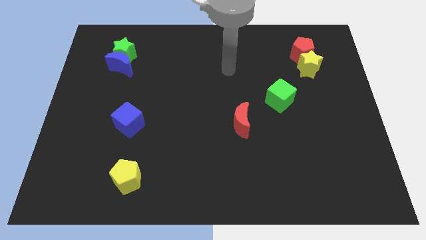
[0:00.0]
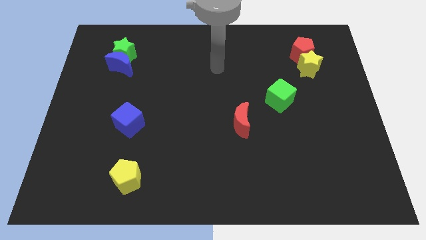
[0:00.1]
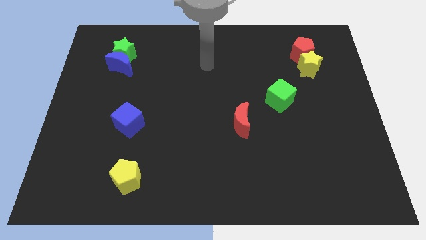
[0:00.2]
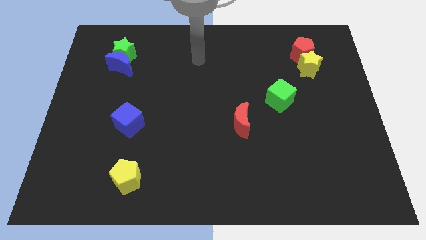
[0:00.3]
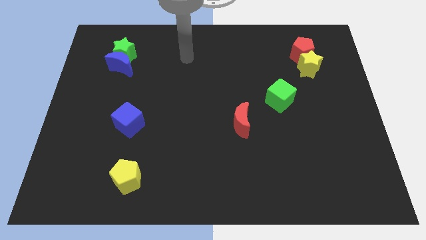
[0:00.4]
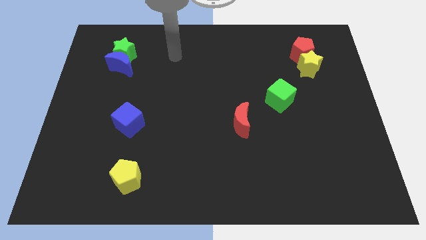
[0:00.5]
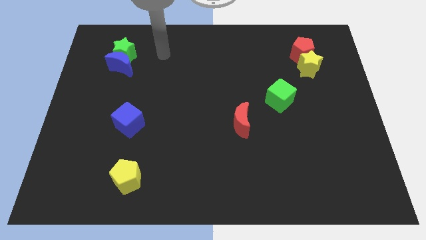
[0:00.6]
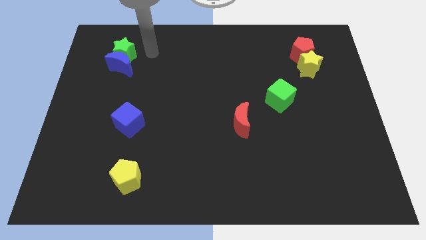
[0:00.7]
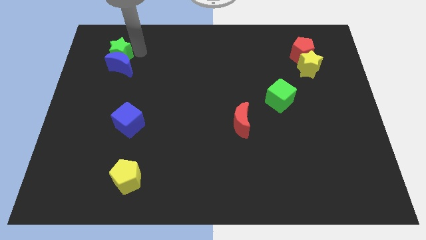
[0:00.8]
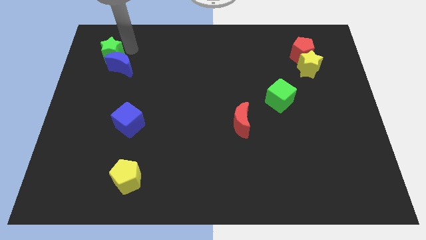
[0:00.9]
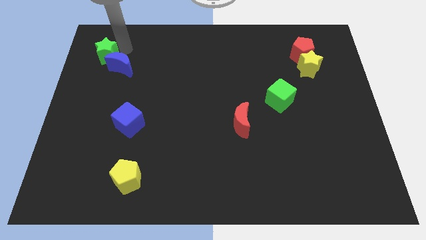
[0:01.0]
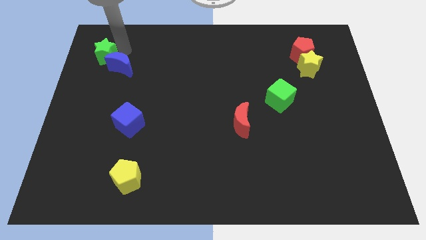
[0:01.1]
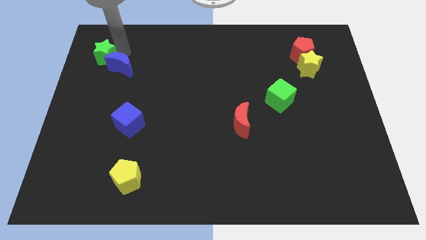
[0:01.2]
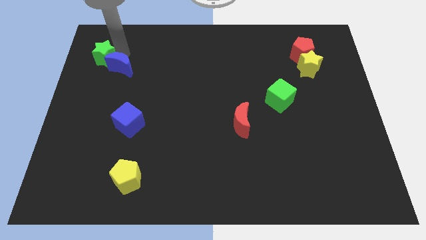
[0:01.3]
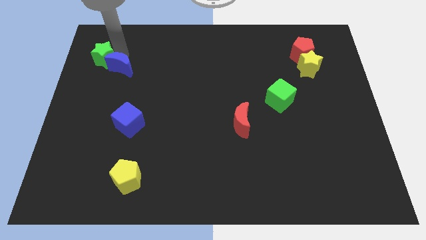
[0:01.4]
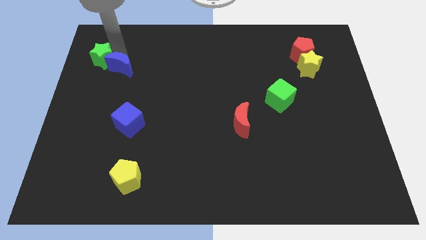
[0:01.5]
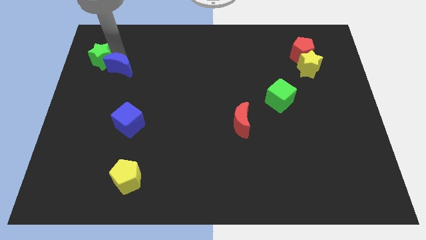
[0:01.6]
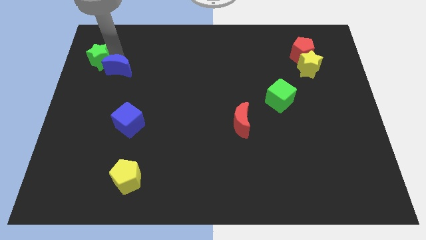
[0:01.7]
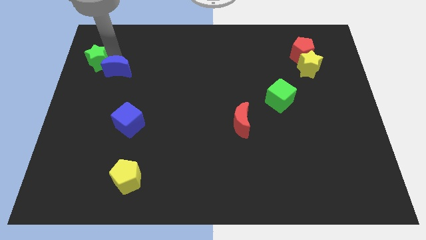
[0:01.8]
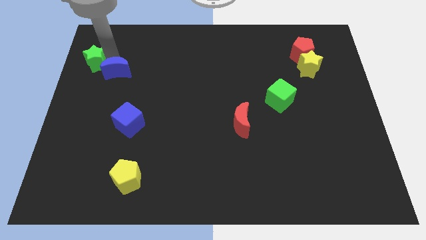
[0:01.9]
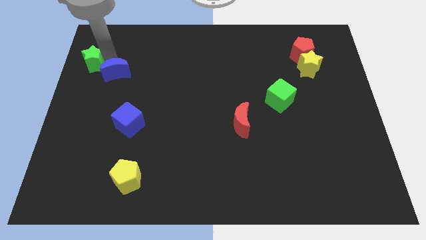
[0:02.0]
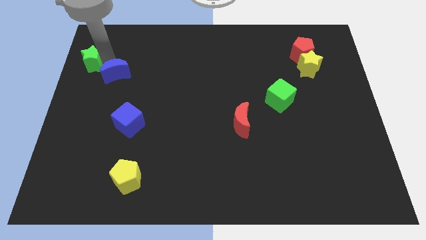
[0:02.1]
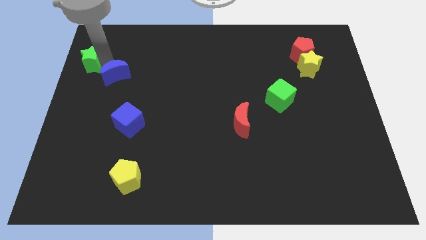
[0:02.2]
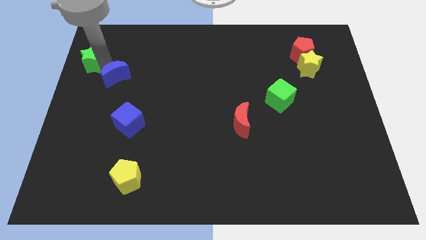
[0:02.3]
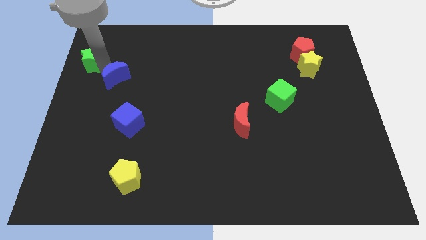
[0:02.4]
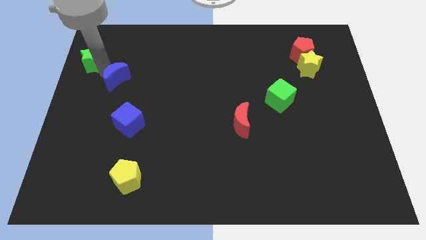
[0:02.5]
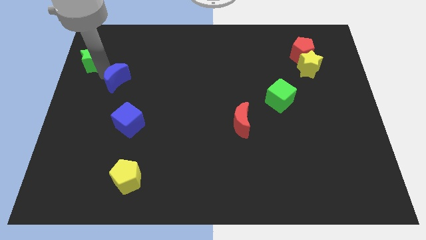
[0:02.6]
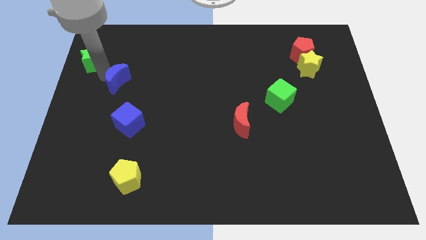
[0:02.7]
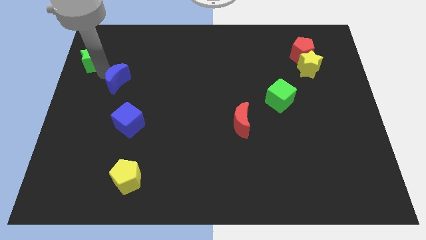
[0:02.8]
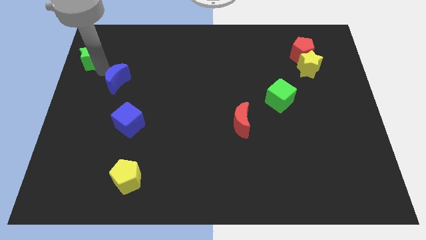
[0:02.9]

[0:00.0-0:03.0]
move the blue moon away from the green star

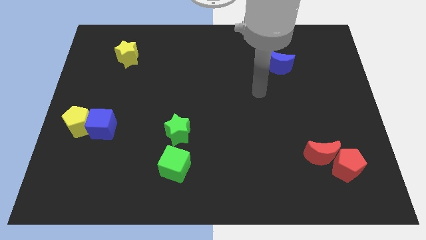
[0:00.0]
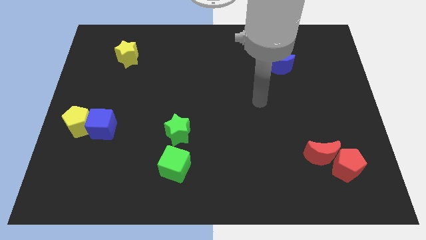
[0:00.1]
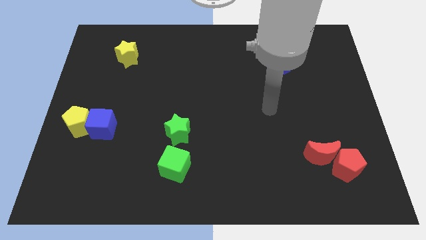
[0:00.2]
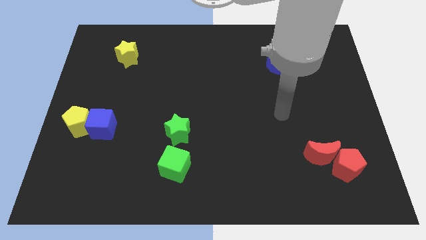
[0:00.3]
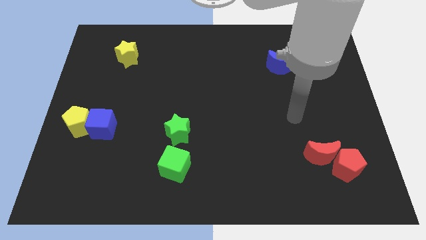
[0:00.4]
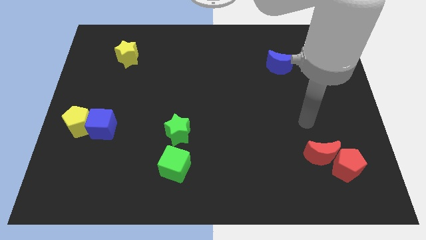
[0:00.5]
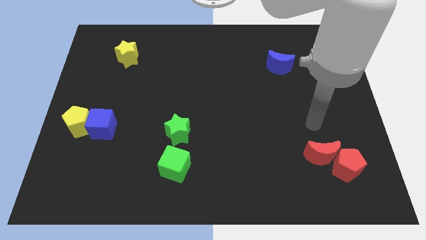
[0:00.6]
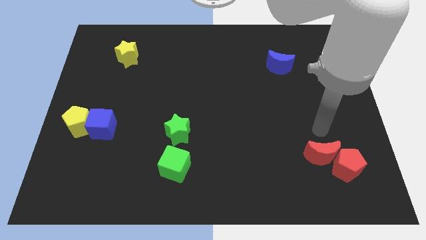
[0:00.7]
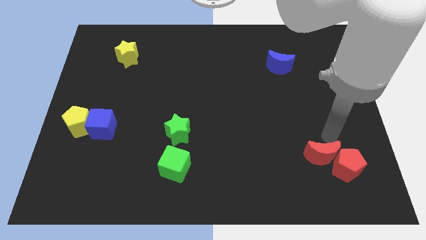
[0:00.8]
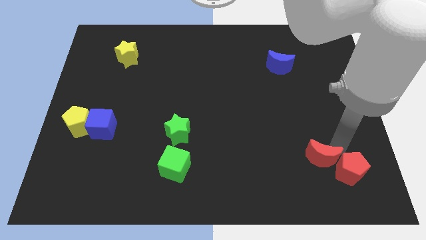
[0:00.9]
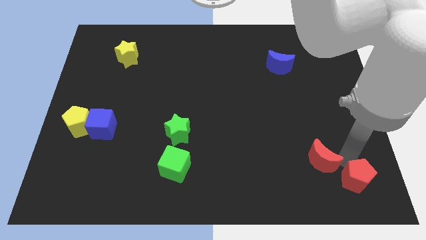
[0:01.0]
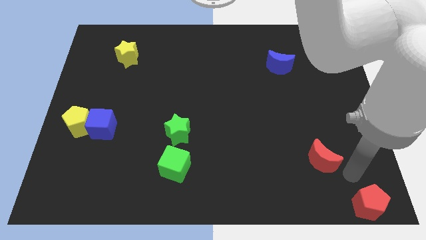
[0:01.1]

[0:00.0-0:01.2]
move the red moon away from the red pentagon

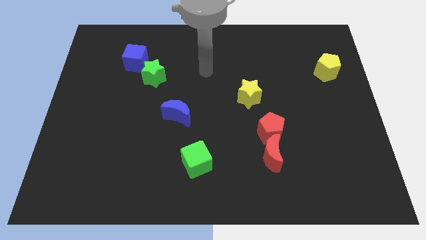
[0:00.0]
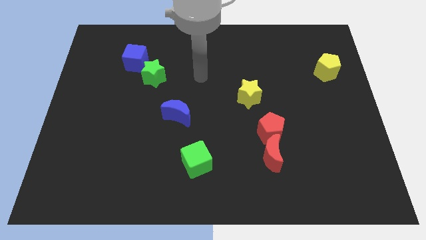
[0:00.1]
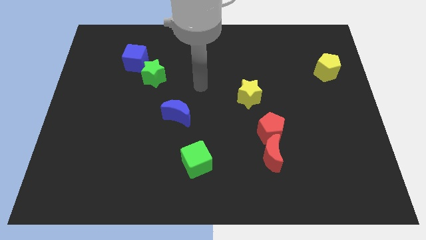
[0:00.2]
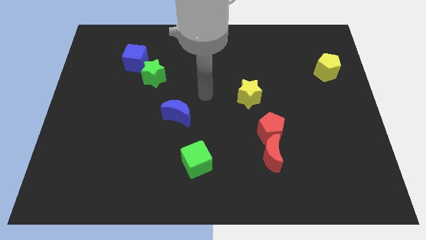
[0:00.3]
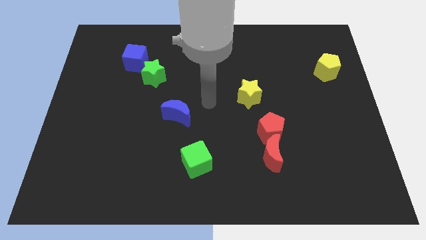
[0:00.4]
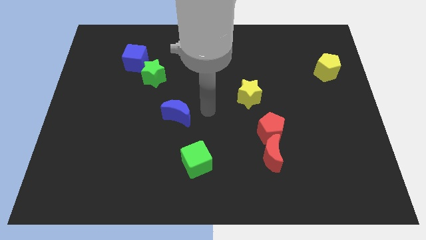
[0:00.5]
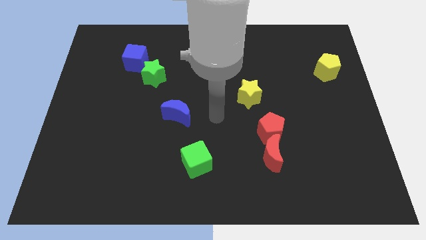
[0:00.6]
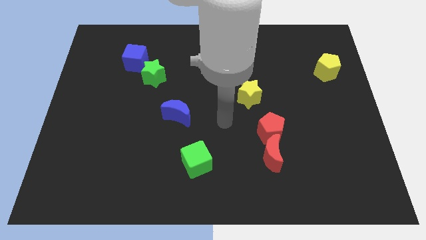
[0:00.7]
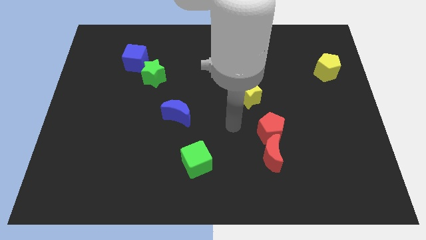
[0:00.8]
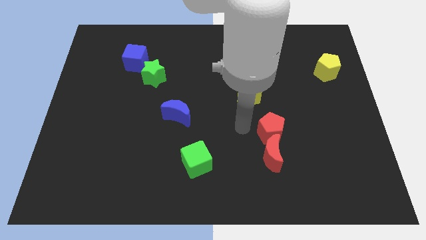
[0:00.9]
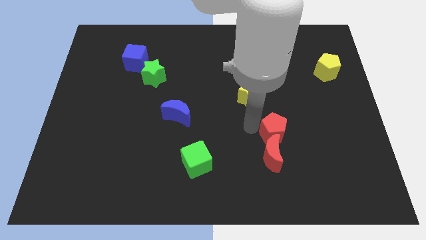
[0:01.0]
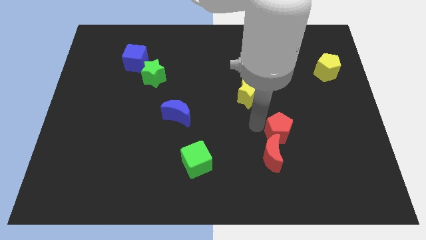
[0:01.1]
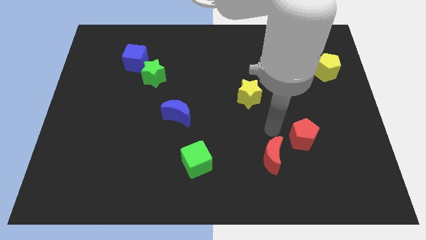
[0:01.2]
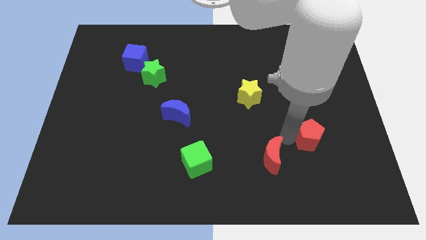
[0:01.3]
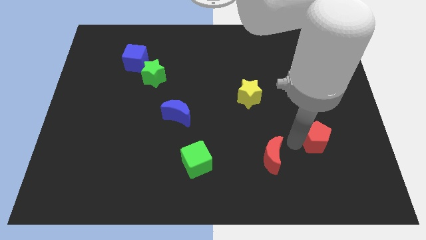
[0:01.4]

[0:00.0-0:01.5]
pull the red moon apart from the red pentagon

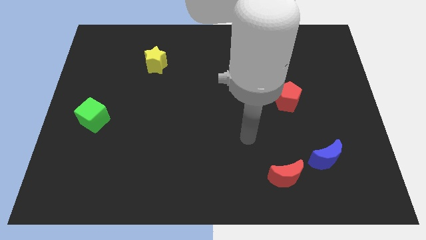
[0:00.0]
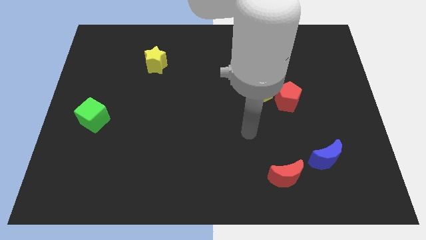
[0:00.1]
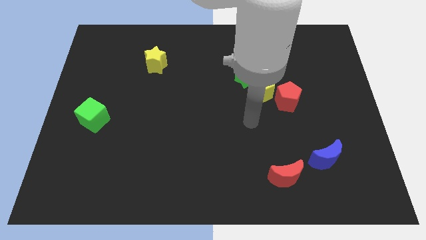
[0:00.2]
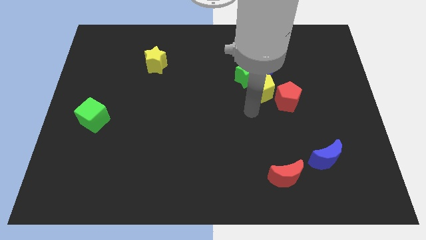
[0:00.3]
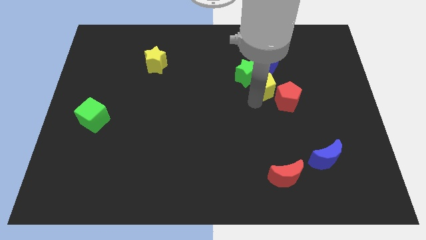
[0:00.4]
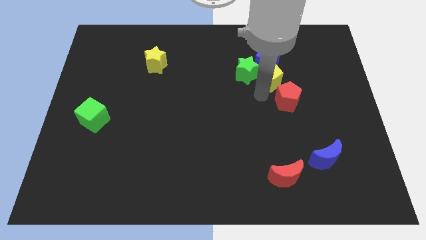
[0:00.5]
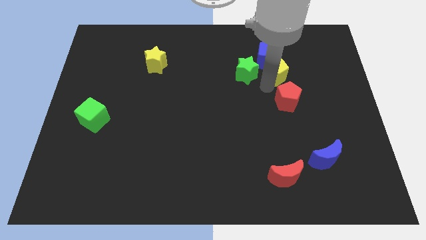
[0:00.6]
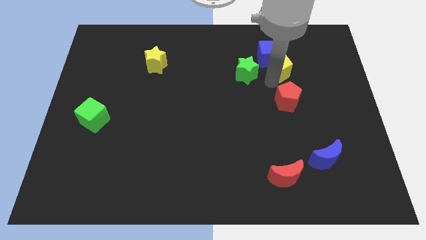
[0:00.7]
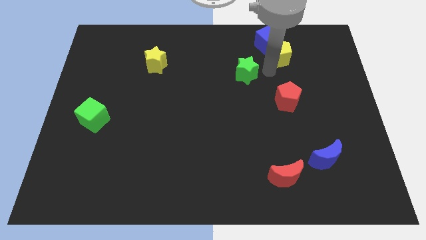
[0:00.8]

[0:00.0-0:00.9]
pull the green star apart from the yellow pentagon and blue cube

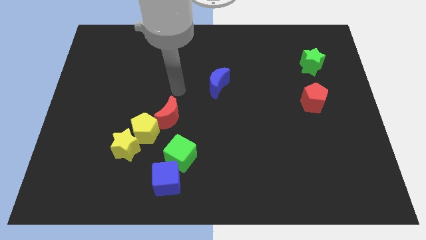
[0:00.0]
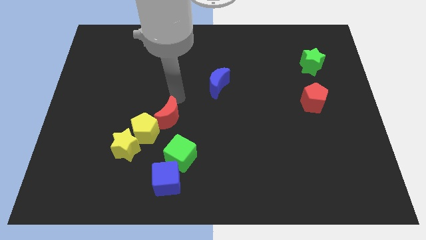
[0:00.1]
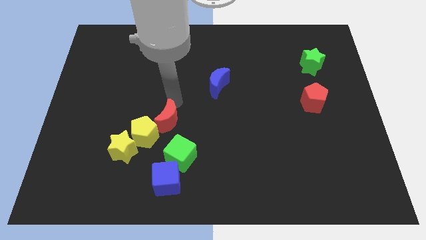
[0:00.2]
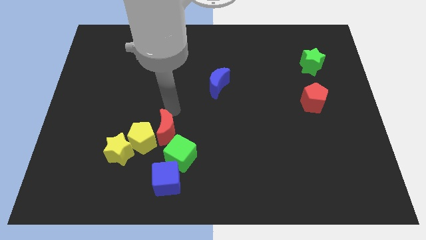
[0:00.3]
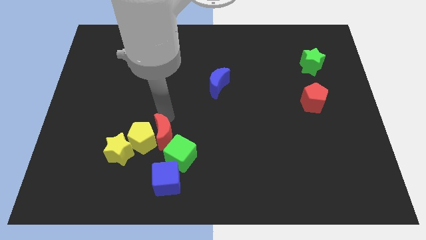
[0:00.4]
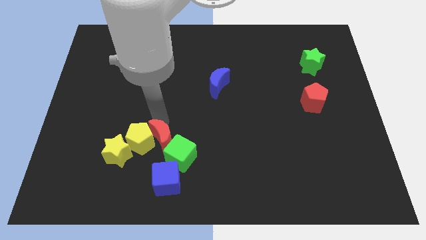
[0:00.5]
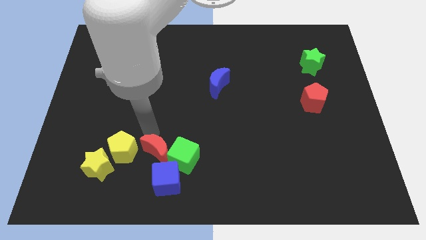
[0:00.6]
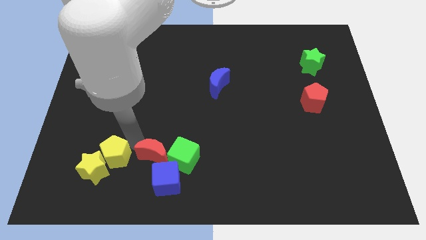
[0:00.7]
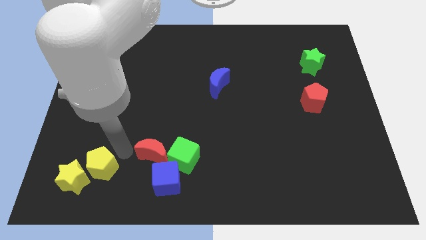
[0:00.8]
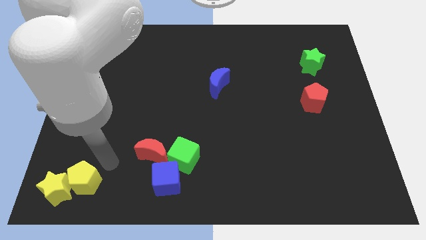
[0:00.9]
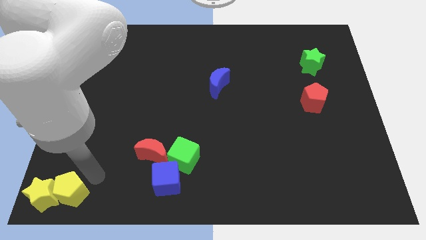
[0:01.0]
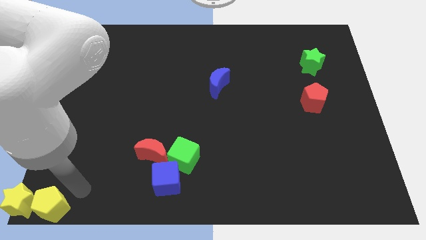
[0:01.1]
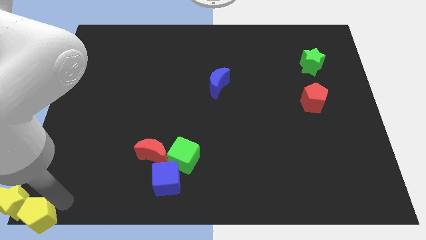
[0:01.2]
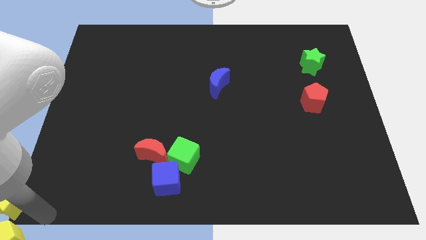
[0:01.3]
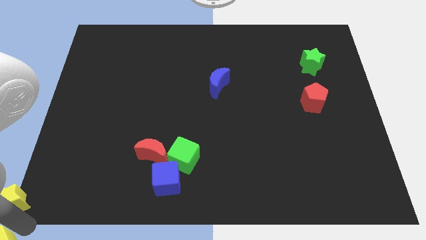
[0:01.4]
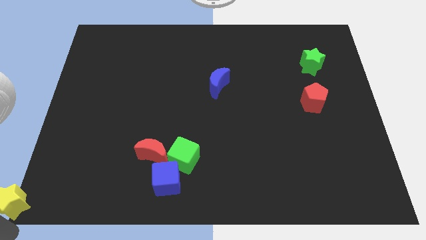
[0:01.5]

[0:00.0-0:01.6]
pull the yellow star apart from the yellow pentagon

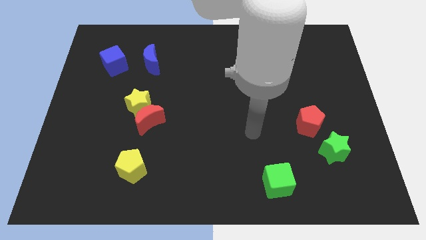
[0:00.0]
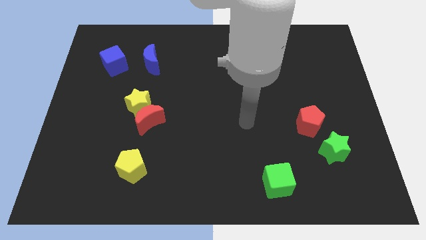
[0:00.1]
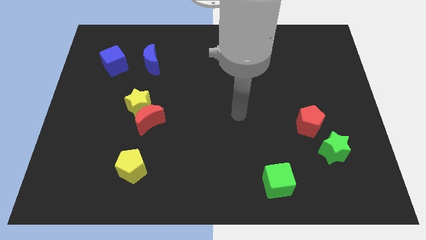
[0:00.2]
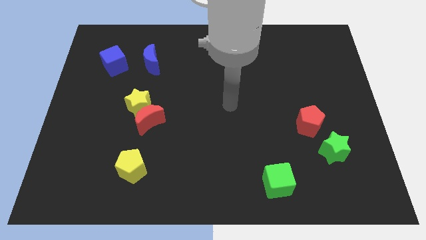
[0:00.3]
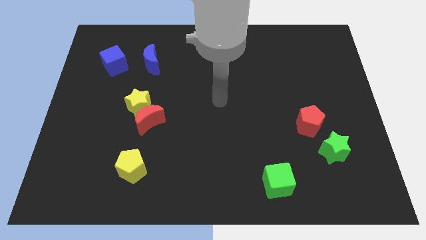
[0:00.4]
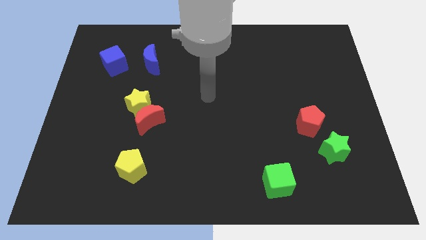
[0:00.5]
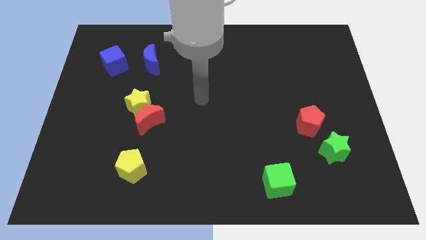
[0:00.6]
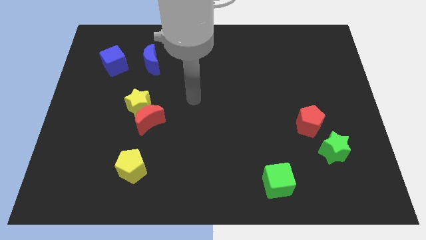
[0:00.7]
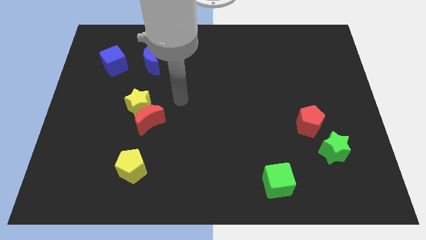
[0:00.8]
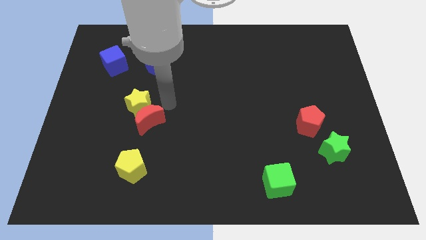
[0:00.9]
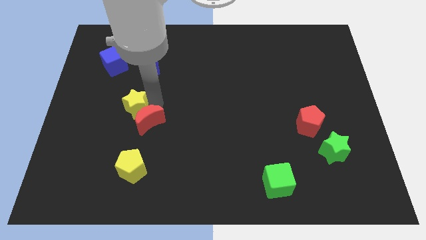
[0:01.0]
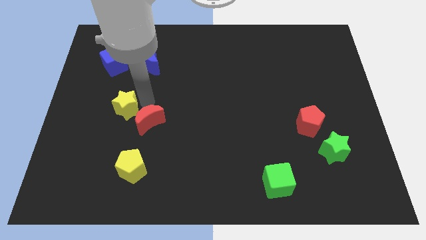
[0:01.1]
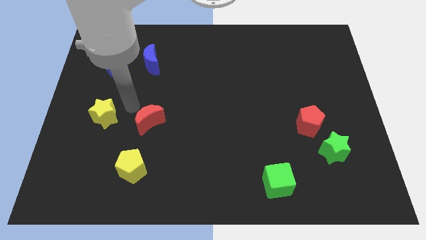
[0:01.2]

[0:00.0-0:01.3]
pull the red moon apart from the yellow star
